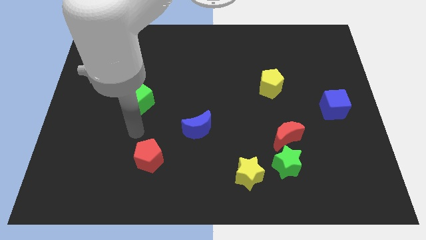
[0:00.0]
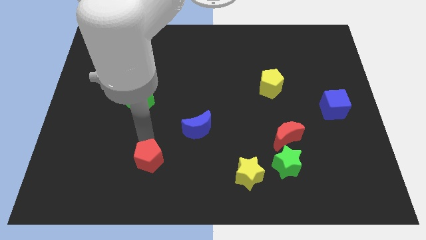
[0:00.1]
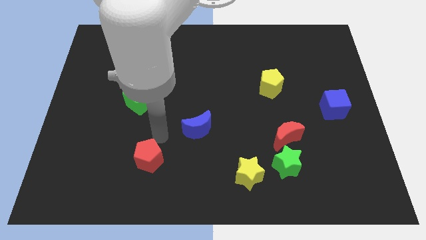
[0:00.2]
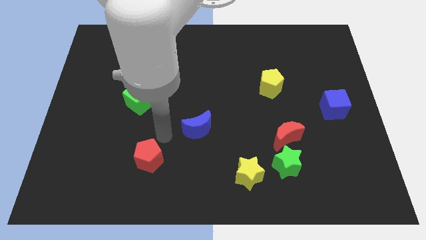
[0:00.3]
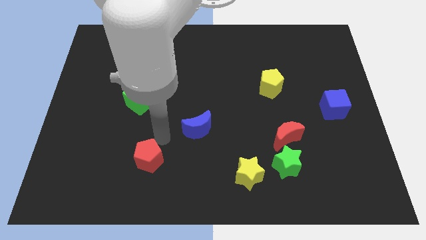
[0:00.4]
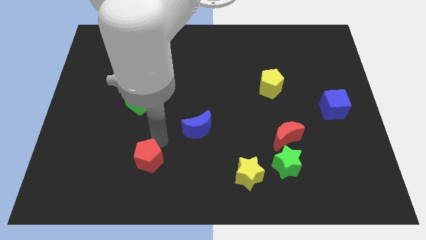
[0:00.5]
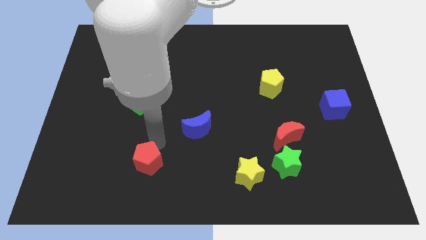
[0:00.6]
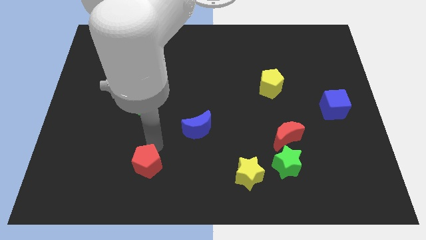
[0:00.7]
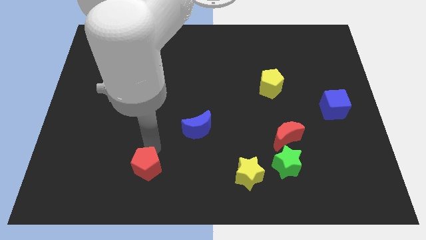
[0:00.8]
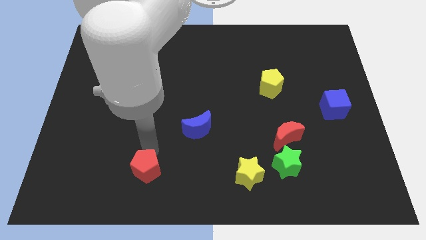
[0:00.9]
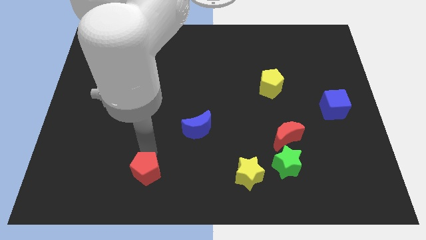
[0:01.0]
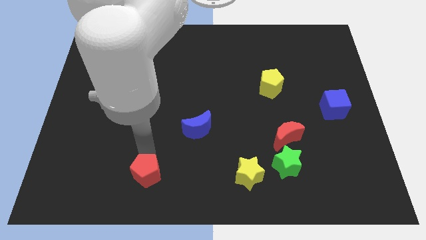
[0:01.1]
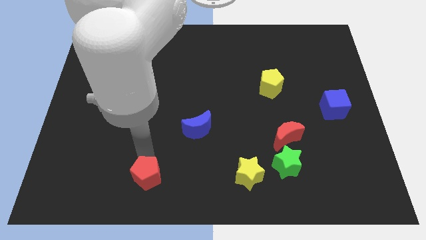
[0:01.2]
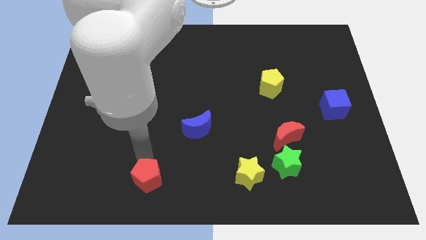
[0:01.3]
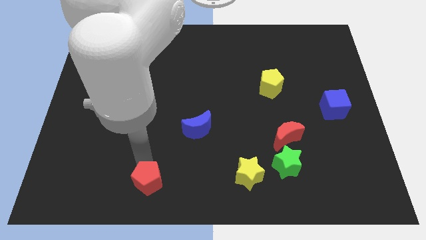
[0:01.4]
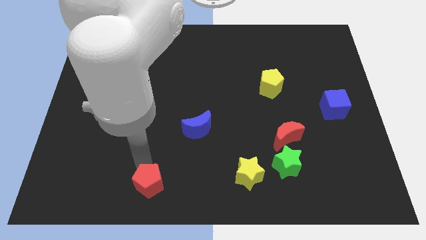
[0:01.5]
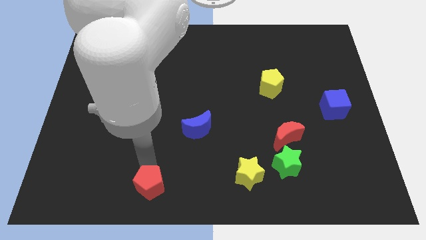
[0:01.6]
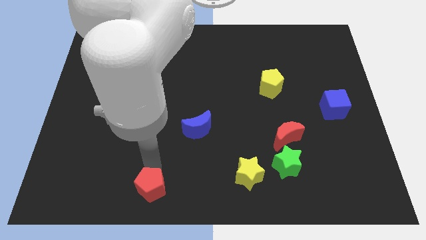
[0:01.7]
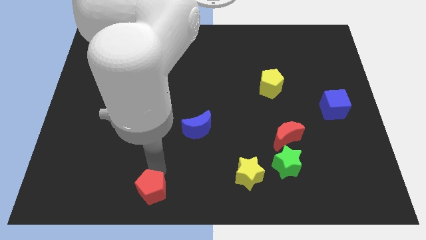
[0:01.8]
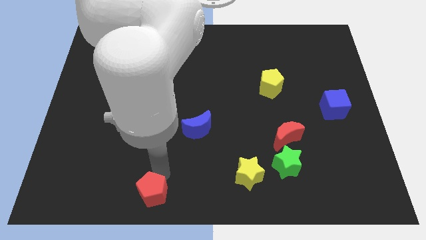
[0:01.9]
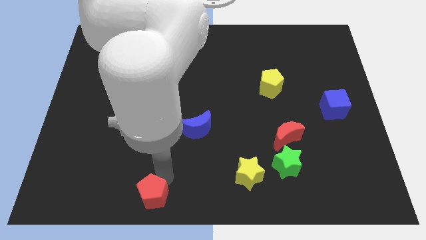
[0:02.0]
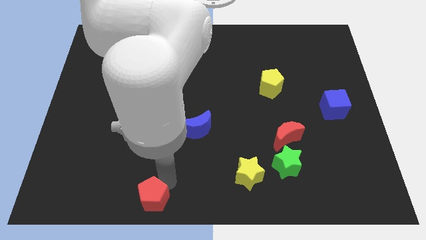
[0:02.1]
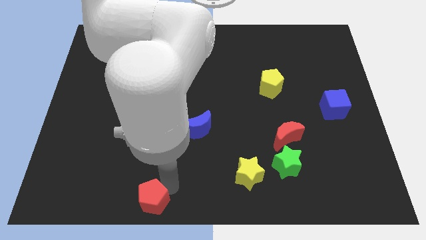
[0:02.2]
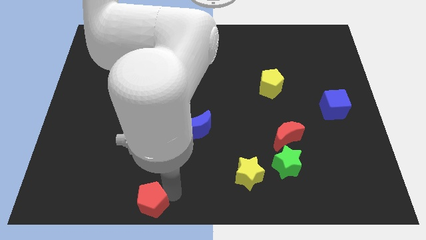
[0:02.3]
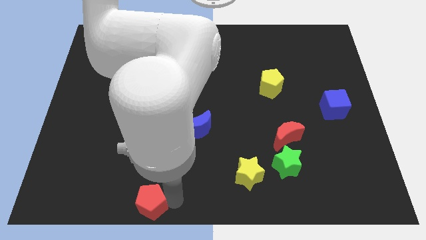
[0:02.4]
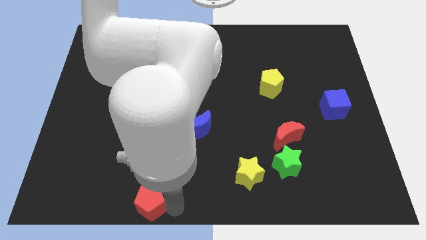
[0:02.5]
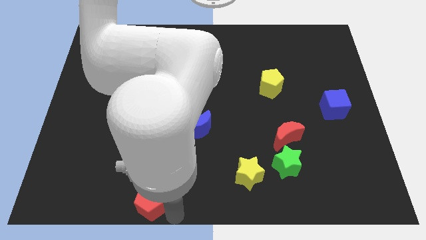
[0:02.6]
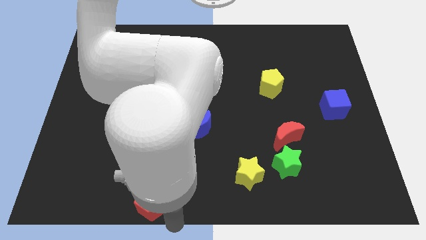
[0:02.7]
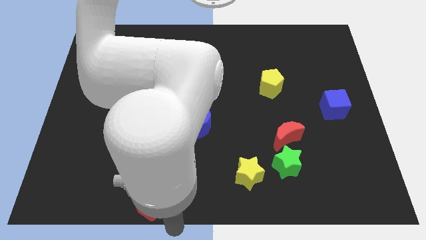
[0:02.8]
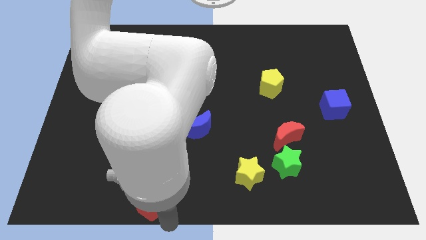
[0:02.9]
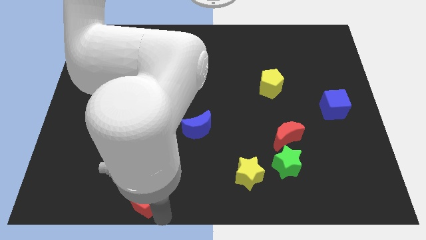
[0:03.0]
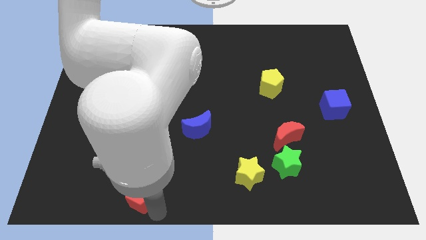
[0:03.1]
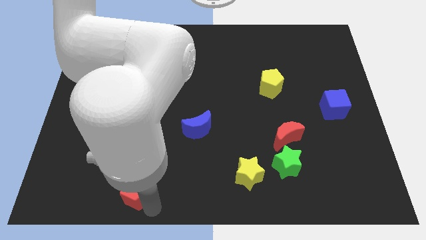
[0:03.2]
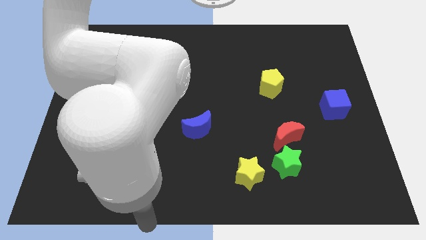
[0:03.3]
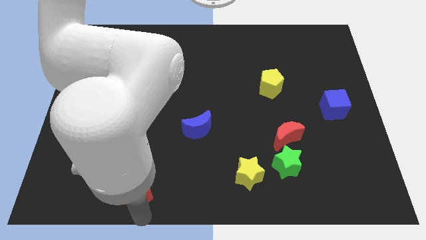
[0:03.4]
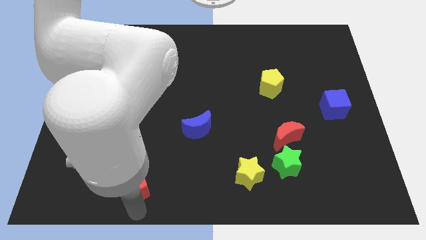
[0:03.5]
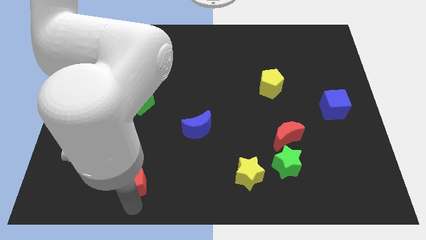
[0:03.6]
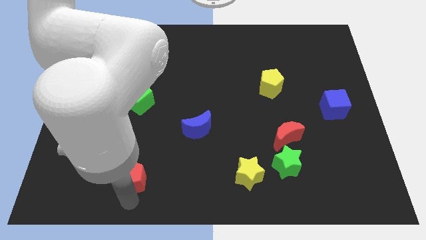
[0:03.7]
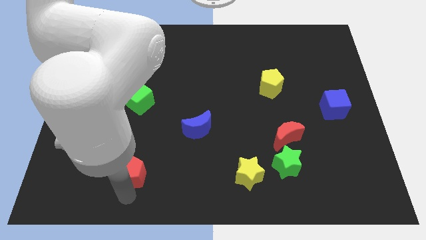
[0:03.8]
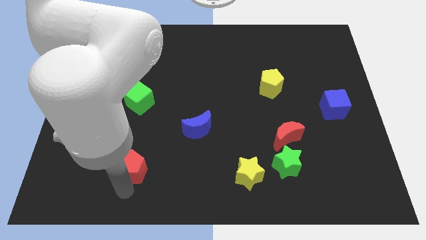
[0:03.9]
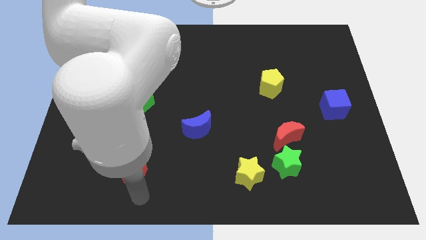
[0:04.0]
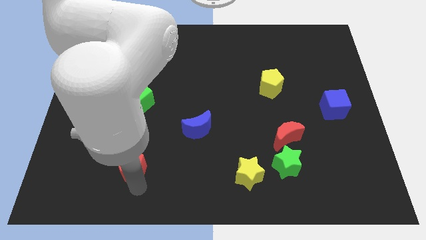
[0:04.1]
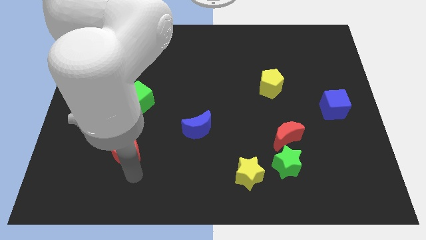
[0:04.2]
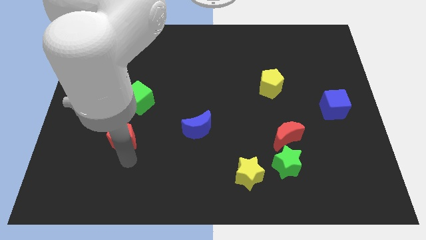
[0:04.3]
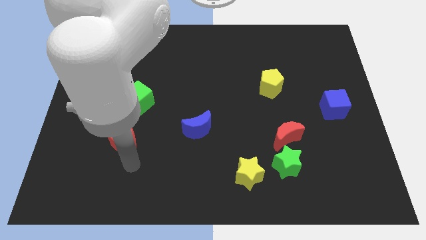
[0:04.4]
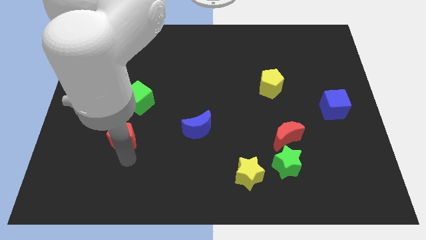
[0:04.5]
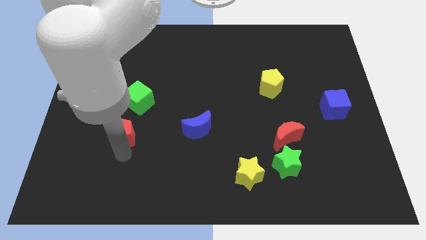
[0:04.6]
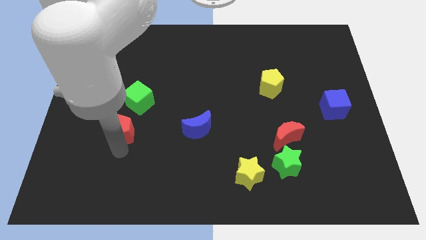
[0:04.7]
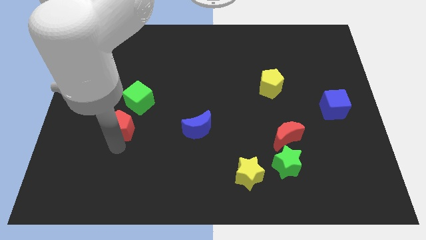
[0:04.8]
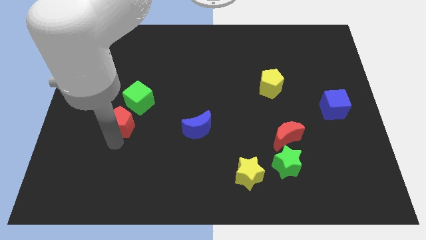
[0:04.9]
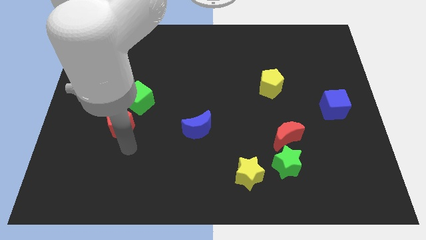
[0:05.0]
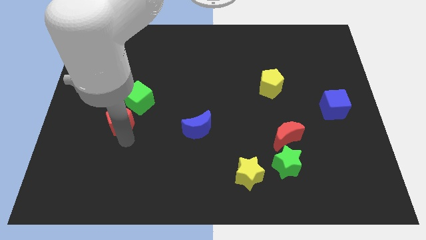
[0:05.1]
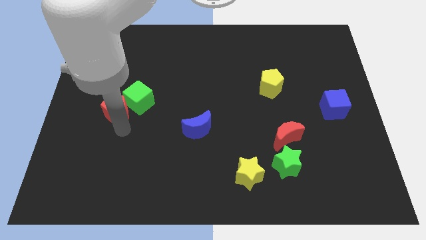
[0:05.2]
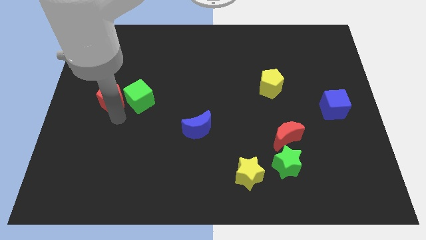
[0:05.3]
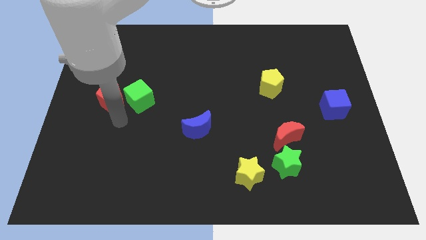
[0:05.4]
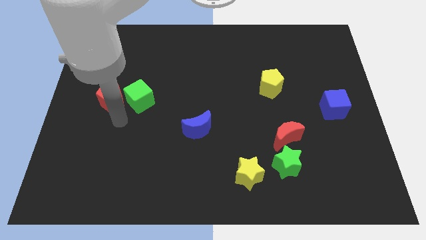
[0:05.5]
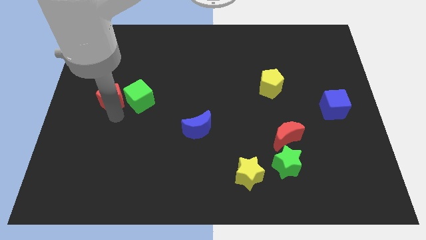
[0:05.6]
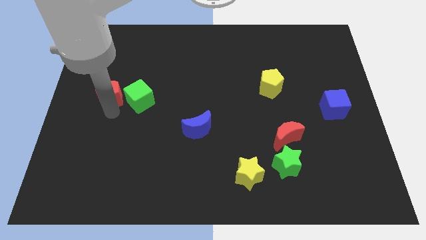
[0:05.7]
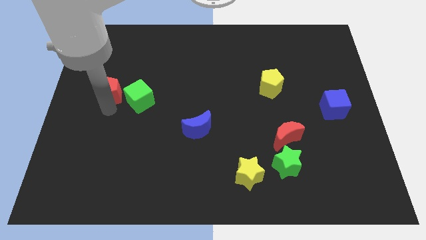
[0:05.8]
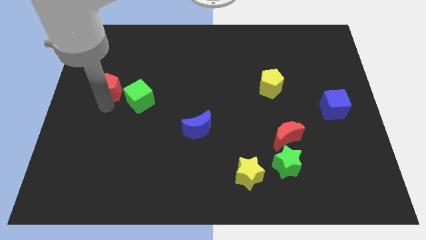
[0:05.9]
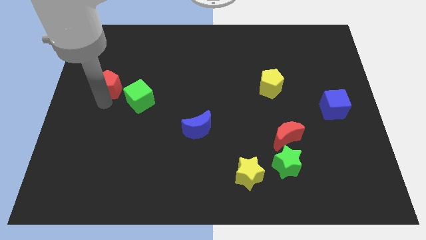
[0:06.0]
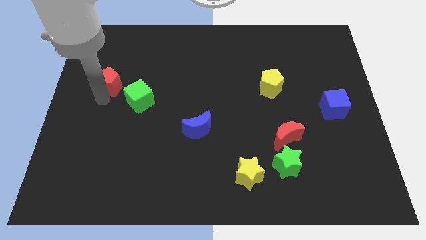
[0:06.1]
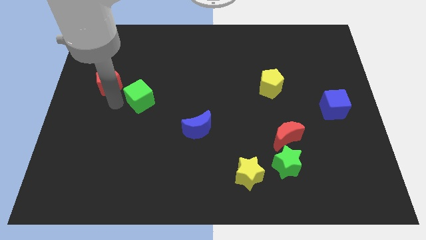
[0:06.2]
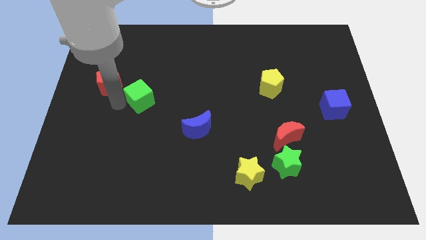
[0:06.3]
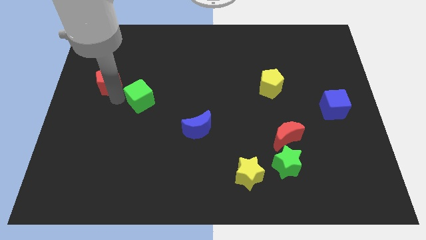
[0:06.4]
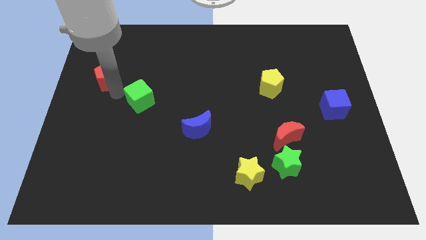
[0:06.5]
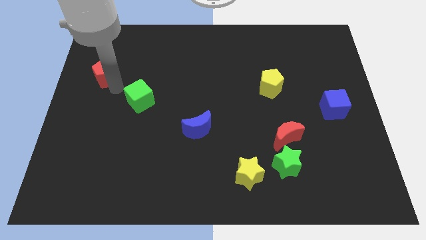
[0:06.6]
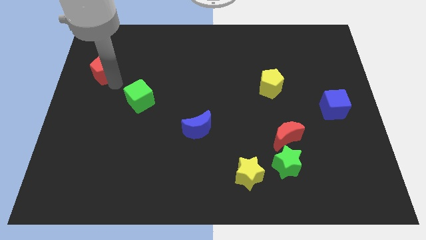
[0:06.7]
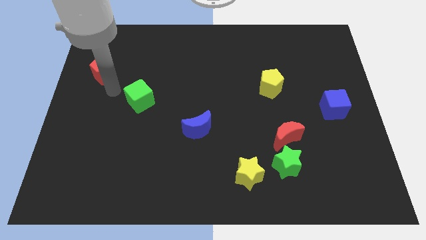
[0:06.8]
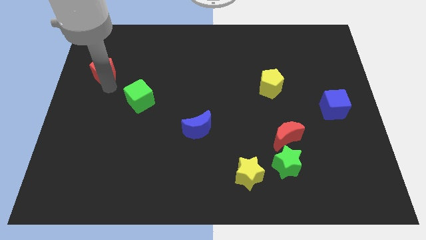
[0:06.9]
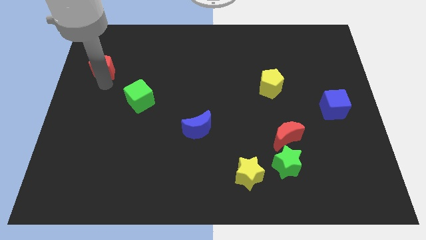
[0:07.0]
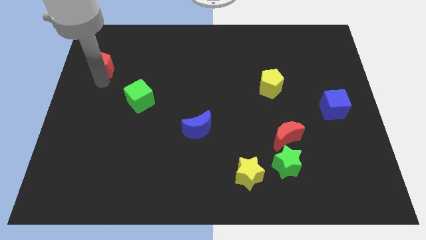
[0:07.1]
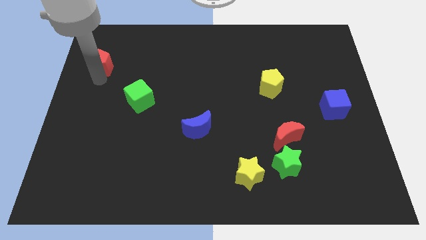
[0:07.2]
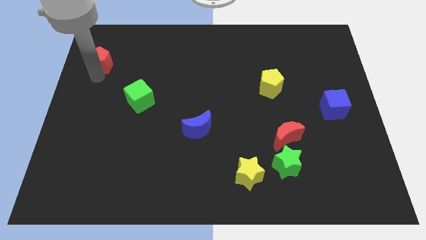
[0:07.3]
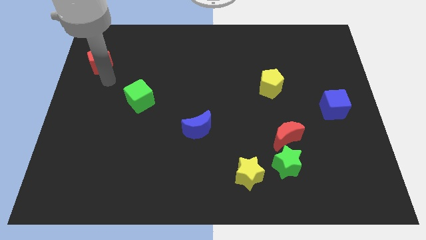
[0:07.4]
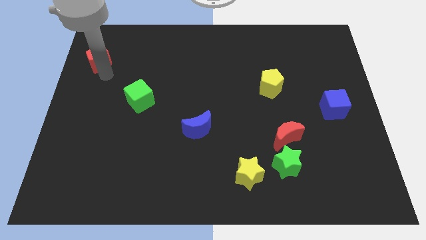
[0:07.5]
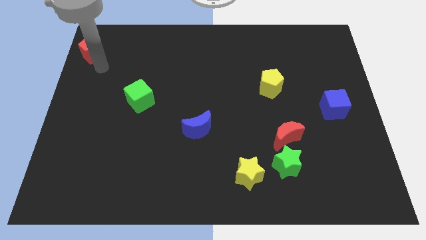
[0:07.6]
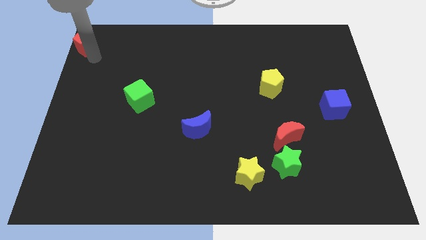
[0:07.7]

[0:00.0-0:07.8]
push the red pentagon to the top left corner
